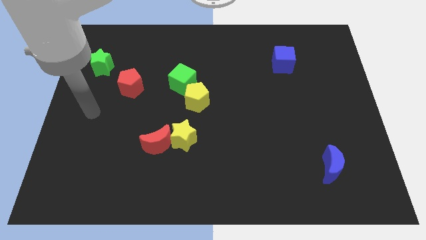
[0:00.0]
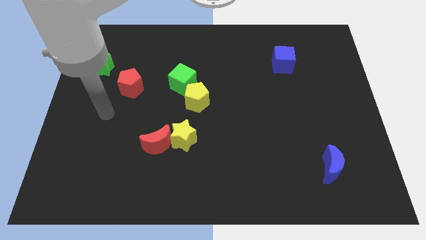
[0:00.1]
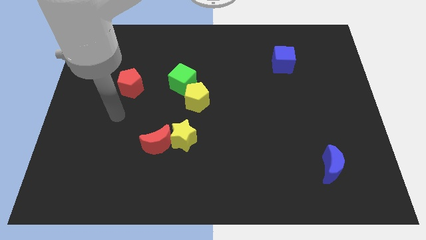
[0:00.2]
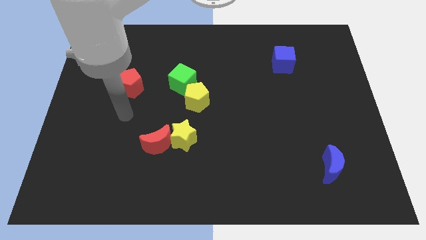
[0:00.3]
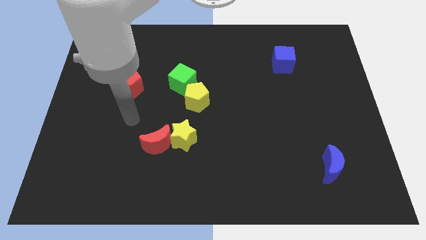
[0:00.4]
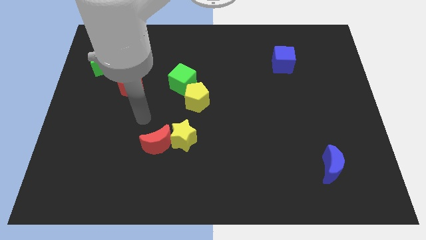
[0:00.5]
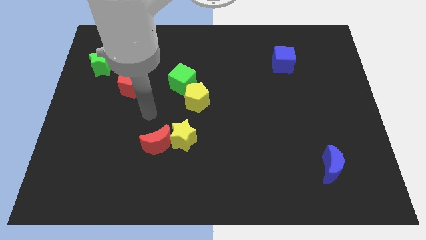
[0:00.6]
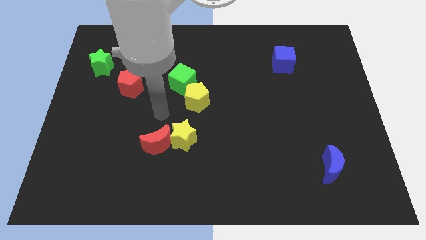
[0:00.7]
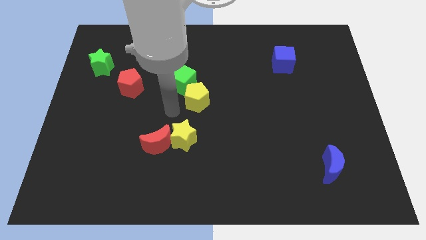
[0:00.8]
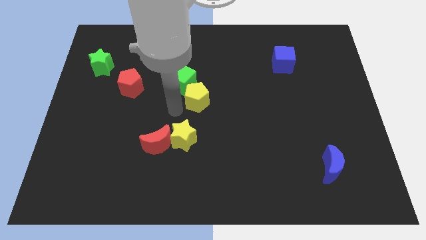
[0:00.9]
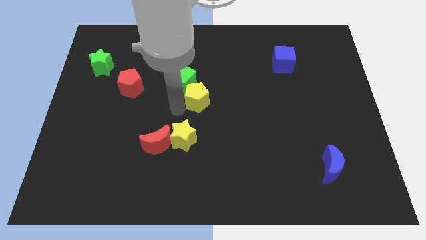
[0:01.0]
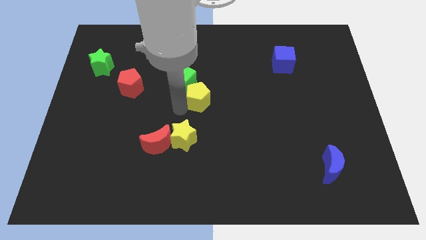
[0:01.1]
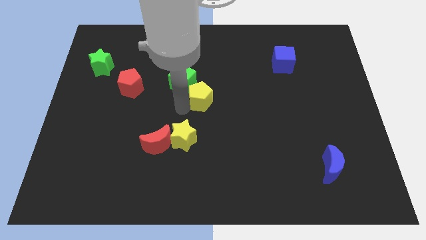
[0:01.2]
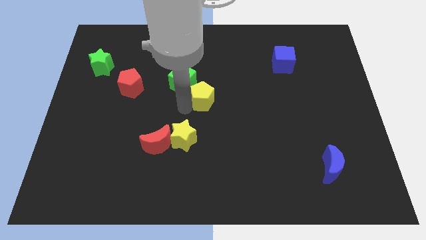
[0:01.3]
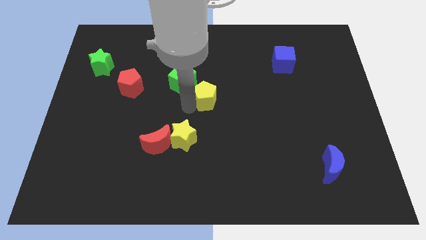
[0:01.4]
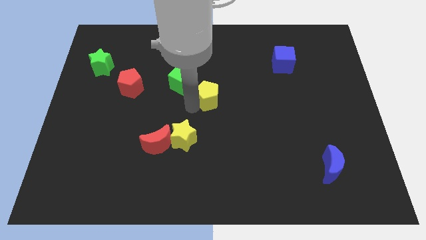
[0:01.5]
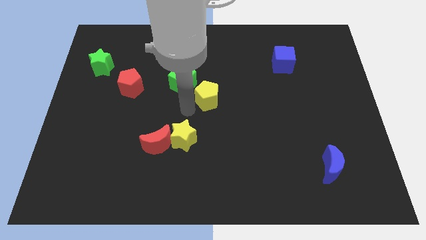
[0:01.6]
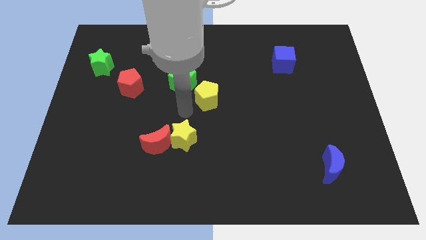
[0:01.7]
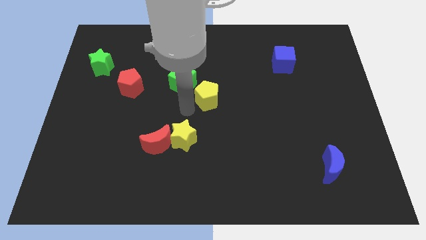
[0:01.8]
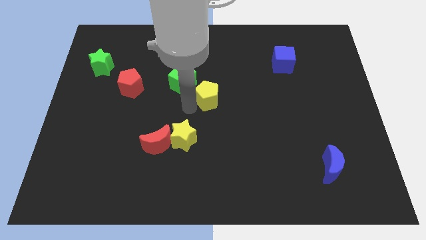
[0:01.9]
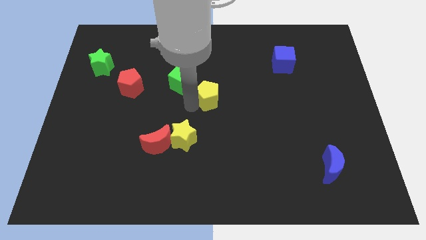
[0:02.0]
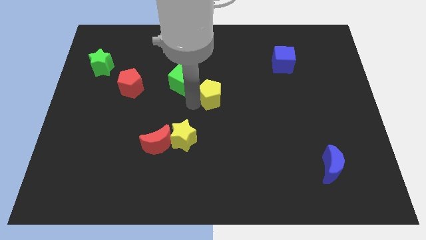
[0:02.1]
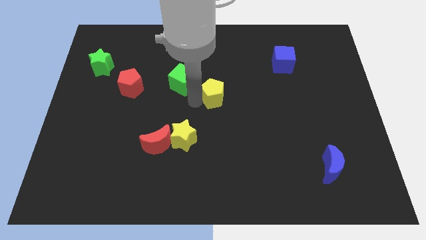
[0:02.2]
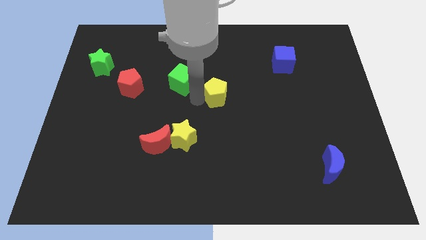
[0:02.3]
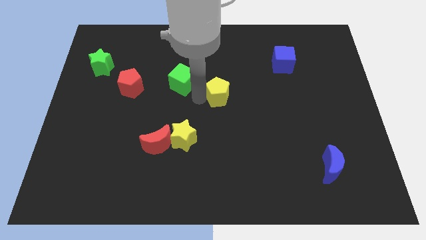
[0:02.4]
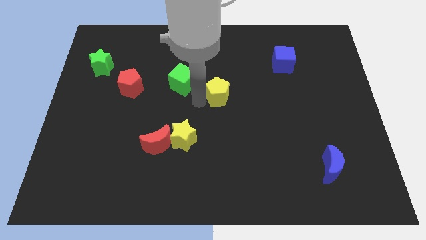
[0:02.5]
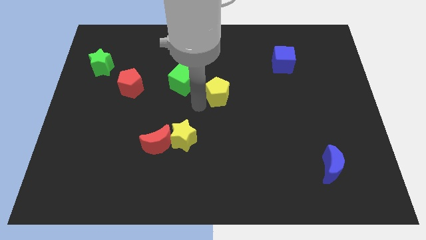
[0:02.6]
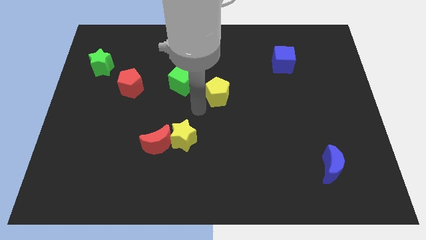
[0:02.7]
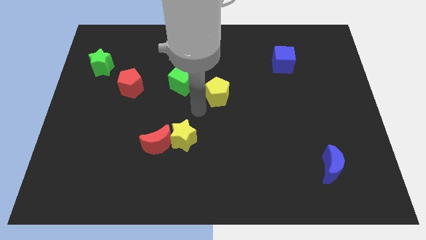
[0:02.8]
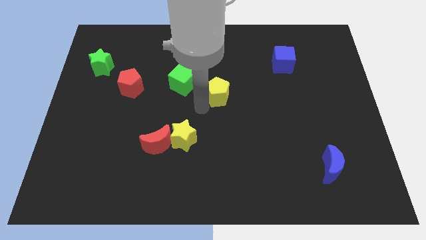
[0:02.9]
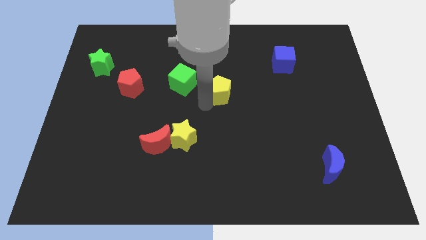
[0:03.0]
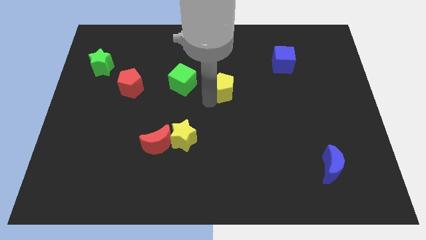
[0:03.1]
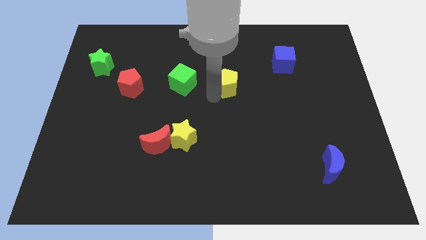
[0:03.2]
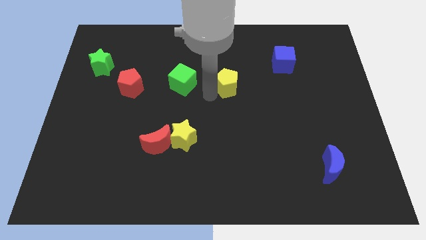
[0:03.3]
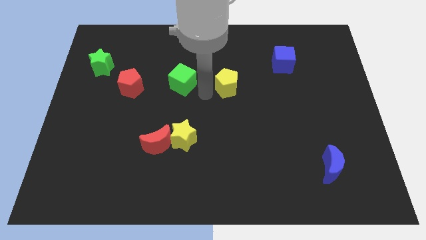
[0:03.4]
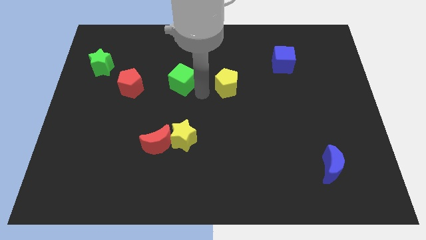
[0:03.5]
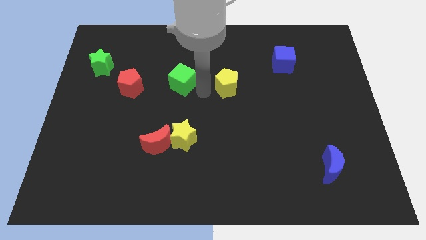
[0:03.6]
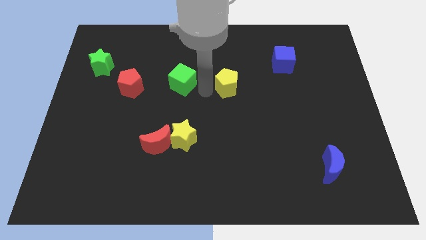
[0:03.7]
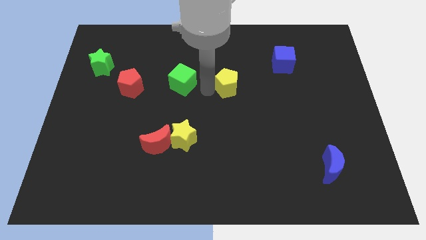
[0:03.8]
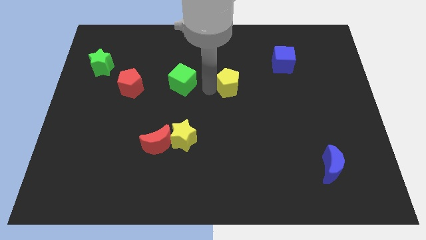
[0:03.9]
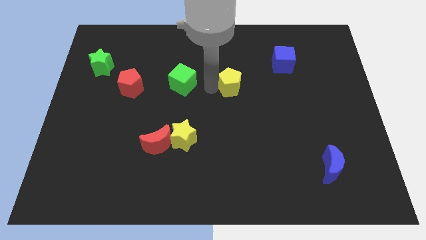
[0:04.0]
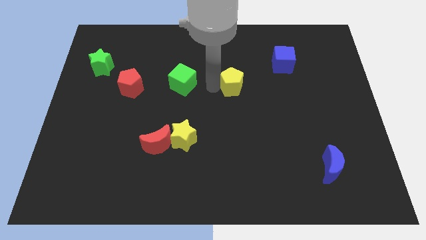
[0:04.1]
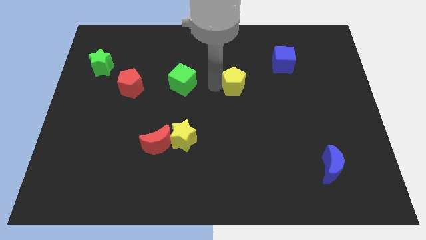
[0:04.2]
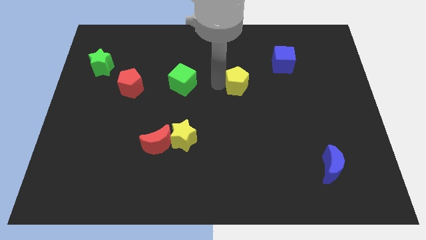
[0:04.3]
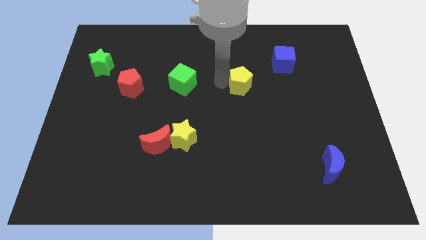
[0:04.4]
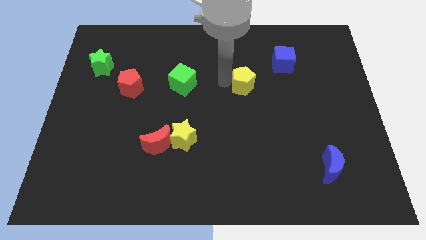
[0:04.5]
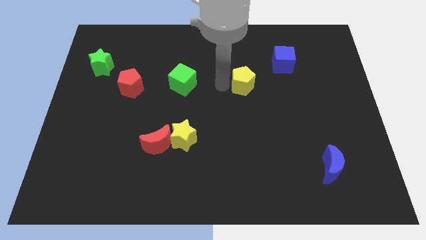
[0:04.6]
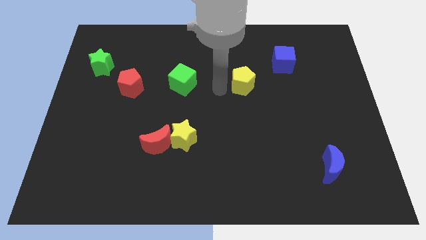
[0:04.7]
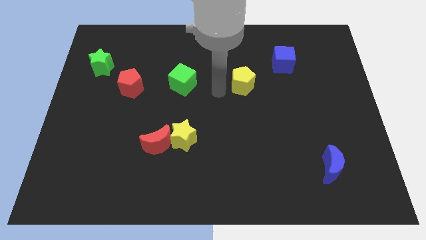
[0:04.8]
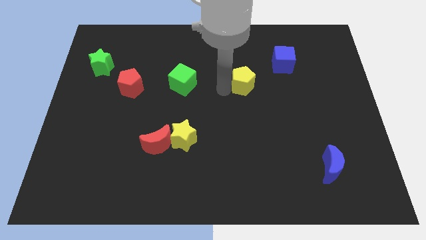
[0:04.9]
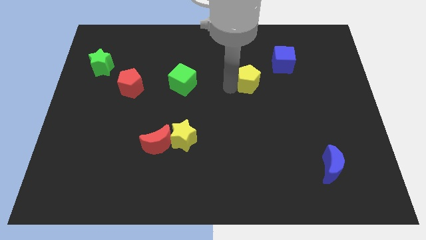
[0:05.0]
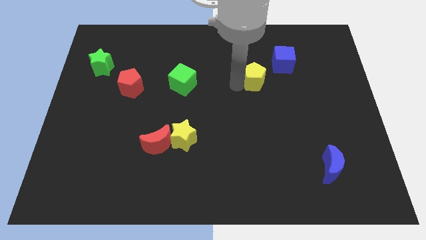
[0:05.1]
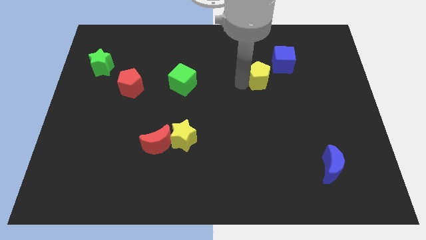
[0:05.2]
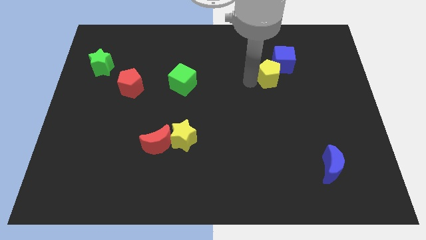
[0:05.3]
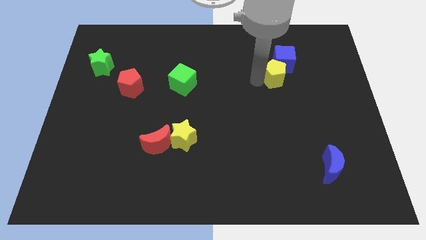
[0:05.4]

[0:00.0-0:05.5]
slide the yellow pentagon next to the blue cube

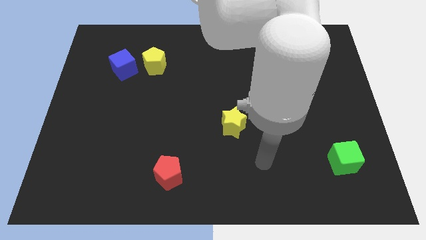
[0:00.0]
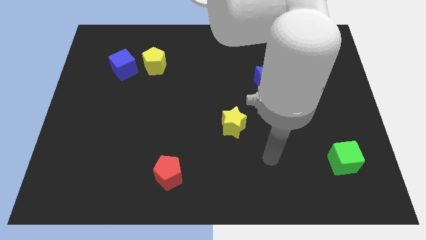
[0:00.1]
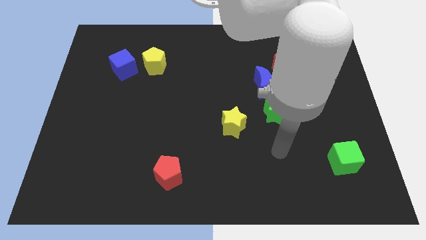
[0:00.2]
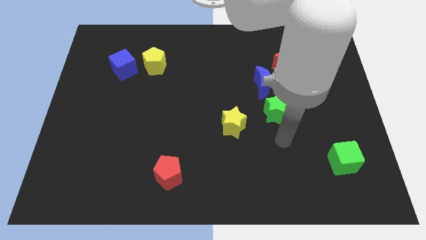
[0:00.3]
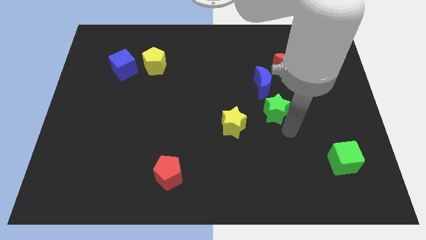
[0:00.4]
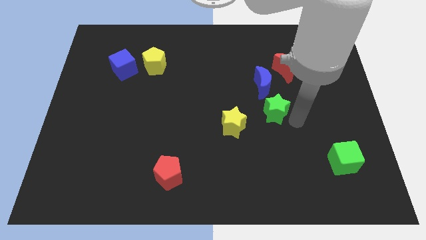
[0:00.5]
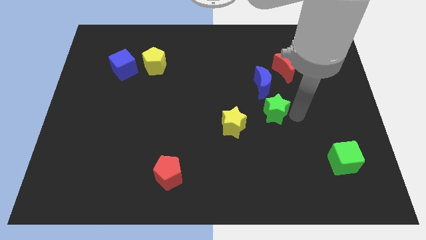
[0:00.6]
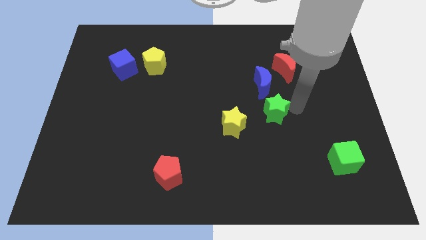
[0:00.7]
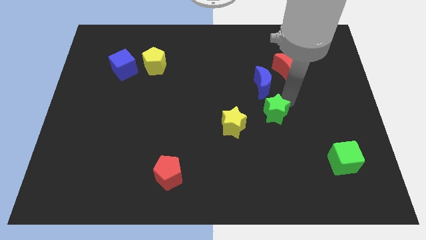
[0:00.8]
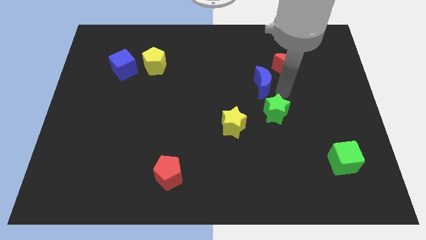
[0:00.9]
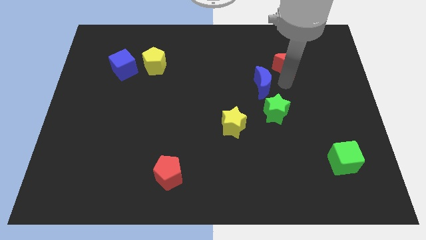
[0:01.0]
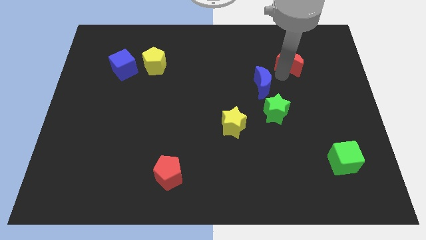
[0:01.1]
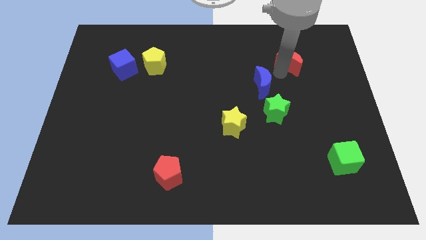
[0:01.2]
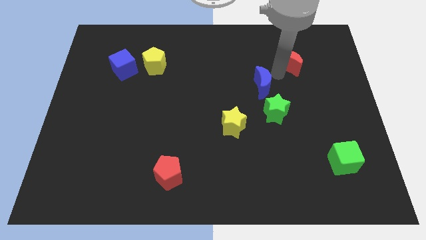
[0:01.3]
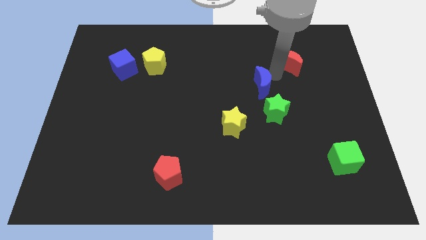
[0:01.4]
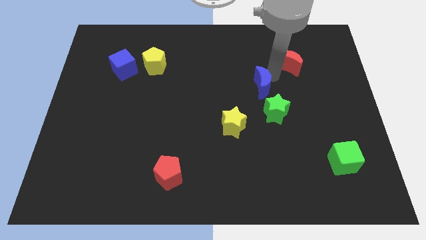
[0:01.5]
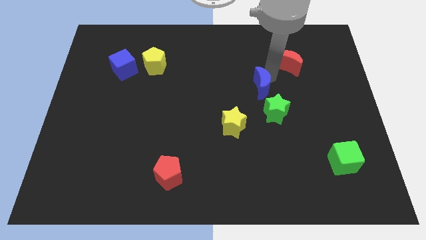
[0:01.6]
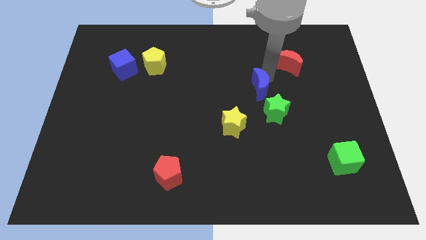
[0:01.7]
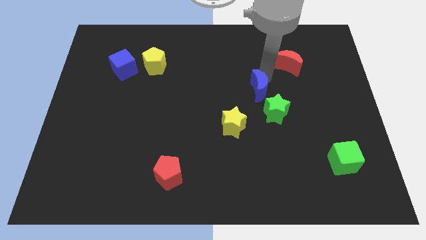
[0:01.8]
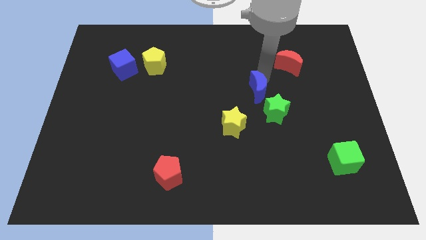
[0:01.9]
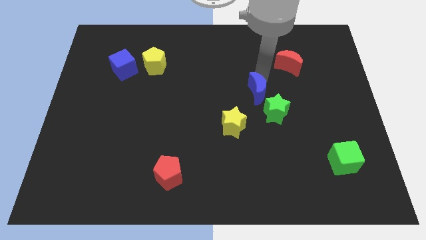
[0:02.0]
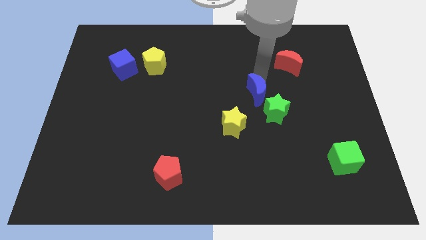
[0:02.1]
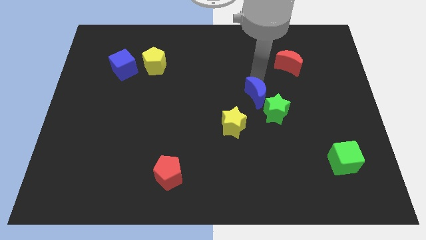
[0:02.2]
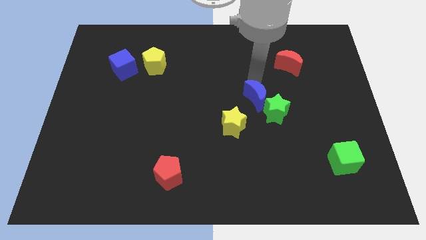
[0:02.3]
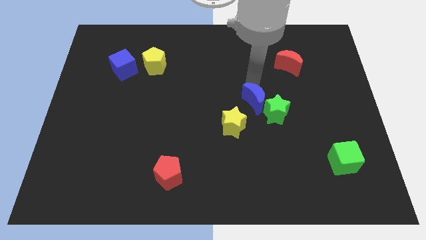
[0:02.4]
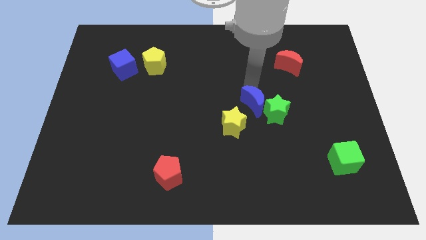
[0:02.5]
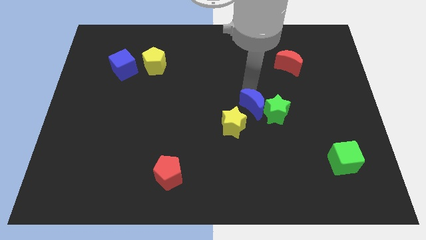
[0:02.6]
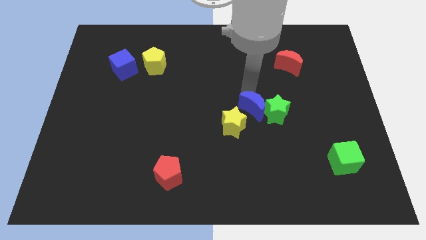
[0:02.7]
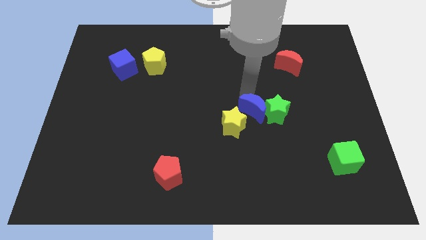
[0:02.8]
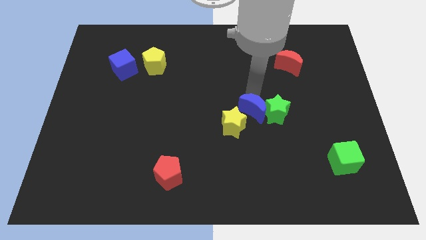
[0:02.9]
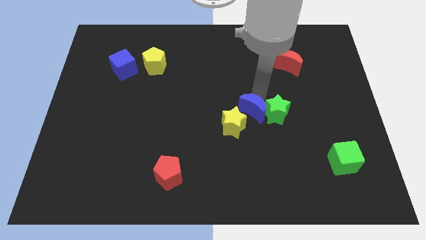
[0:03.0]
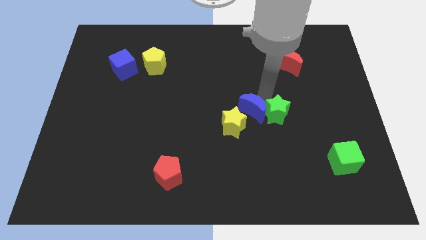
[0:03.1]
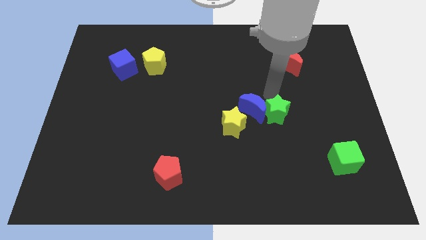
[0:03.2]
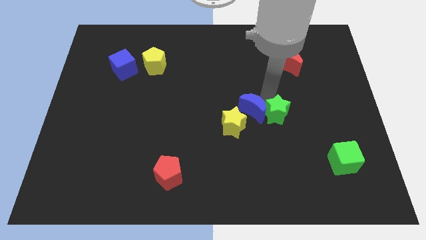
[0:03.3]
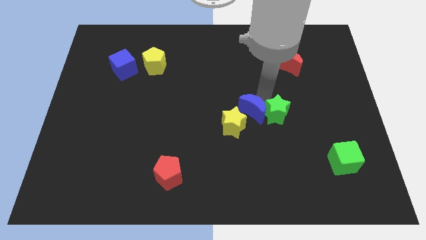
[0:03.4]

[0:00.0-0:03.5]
move the blue moon next to the yellow star
